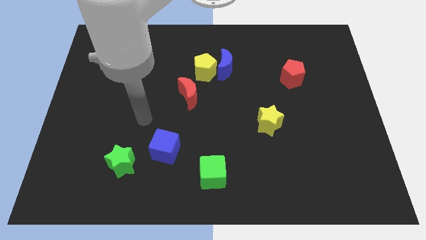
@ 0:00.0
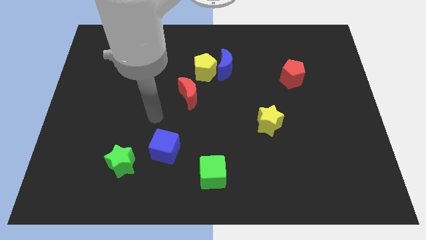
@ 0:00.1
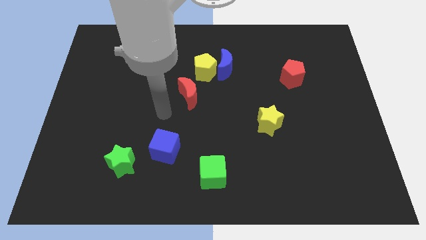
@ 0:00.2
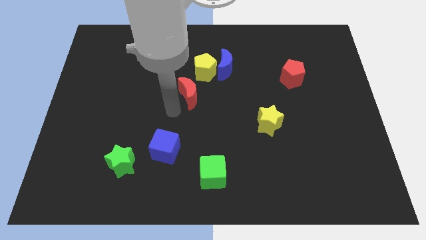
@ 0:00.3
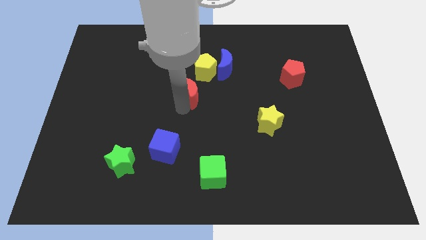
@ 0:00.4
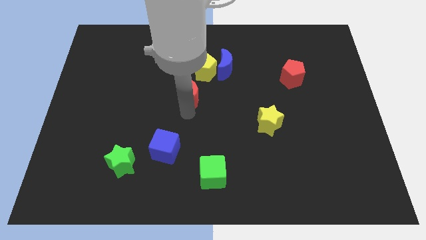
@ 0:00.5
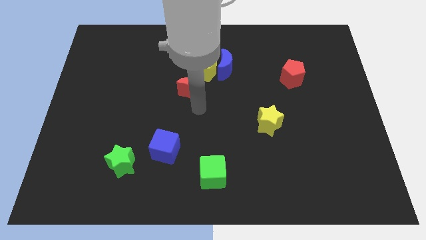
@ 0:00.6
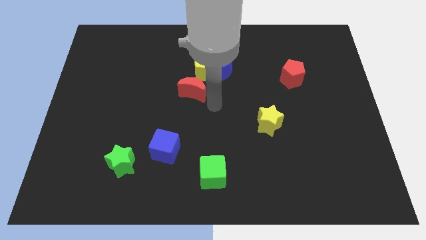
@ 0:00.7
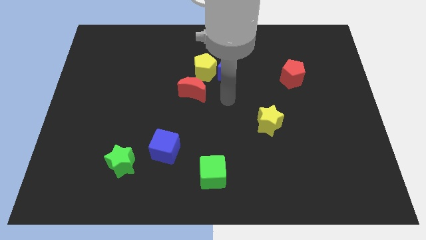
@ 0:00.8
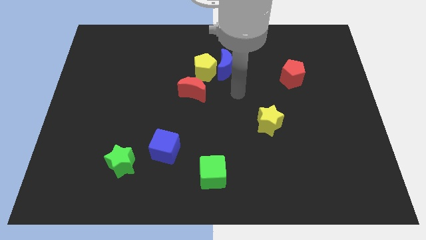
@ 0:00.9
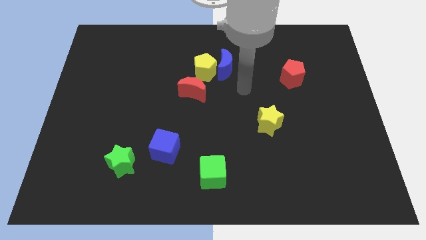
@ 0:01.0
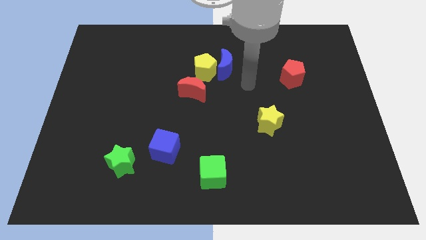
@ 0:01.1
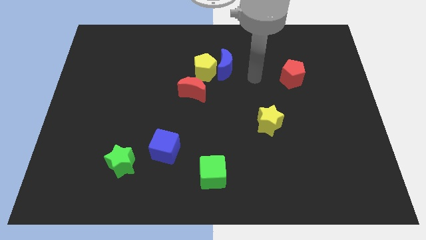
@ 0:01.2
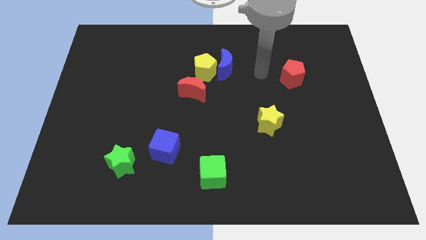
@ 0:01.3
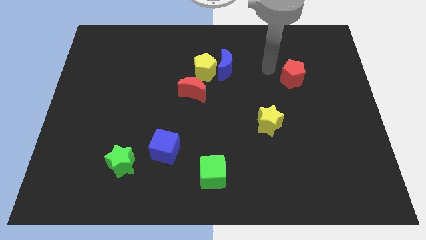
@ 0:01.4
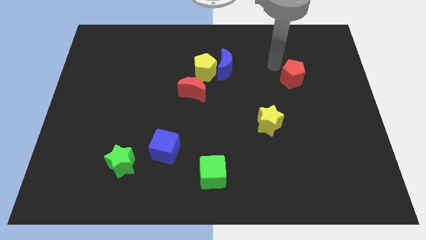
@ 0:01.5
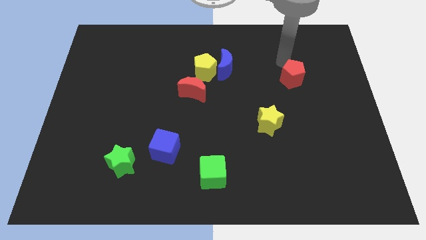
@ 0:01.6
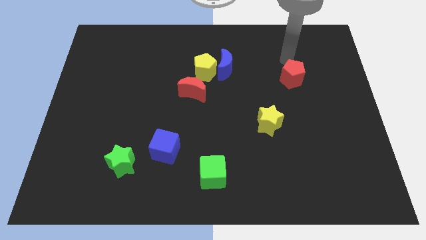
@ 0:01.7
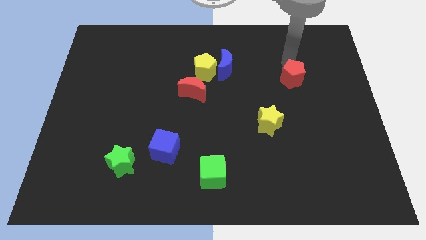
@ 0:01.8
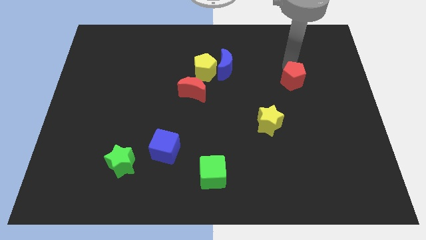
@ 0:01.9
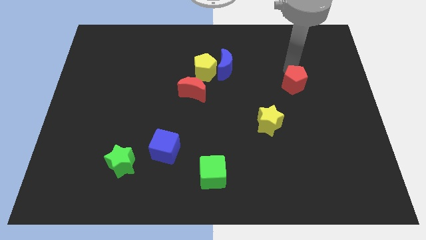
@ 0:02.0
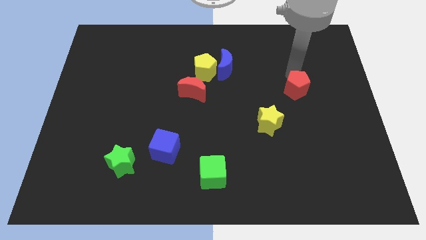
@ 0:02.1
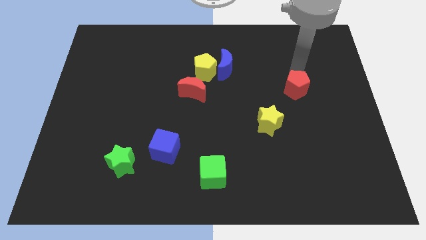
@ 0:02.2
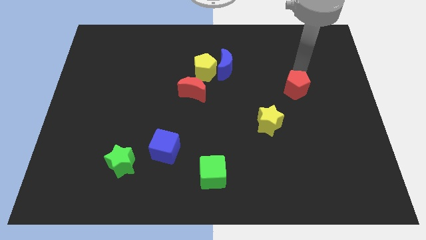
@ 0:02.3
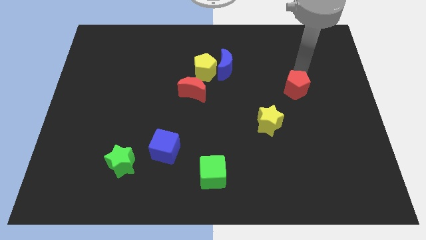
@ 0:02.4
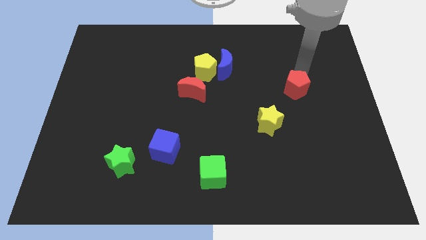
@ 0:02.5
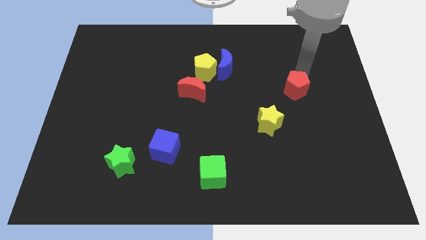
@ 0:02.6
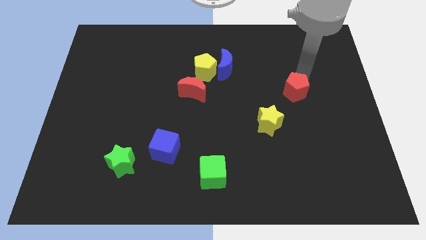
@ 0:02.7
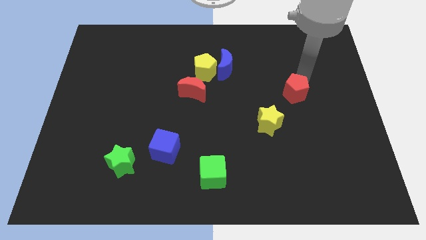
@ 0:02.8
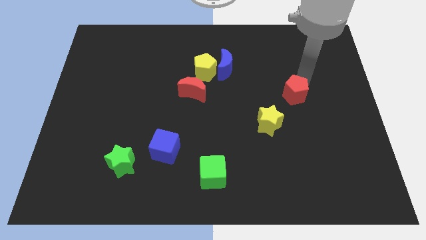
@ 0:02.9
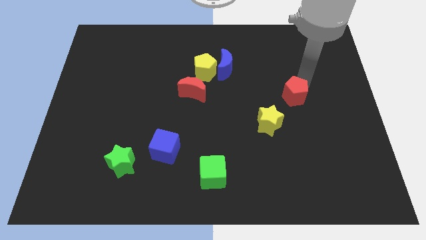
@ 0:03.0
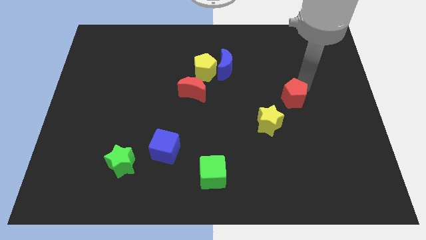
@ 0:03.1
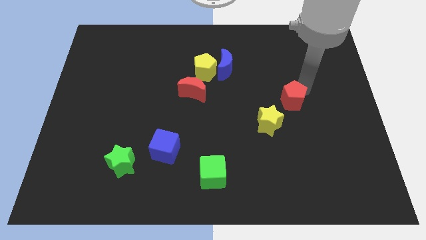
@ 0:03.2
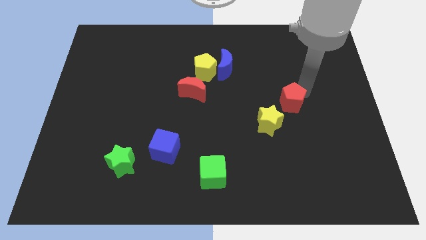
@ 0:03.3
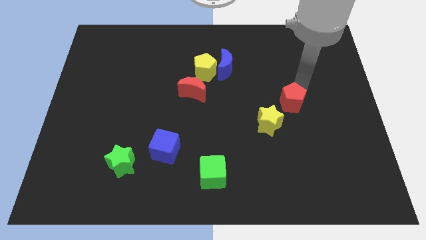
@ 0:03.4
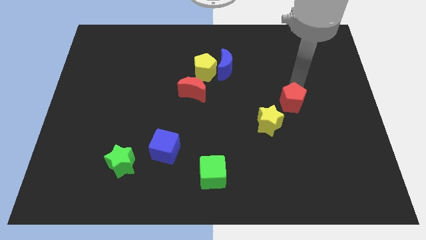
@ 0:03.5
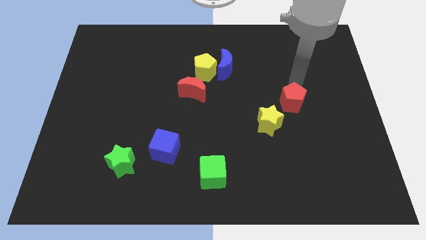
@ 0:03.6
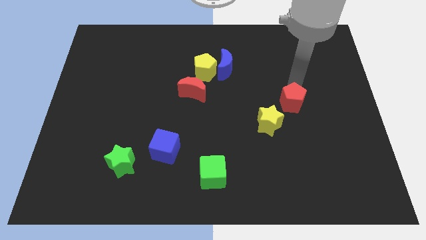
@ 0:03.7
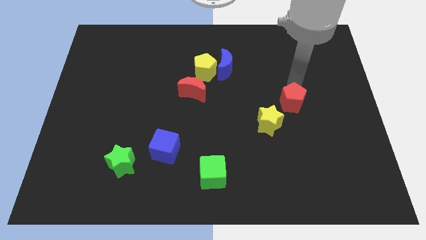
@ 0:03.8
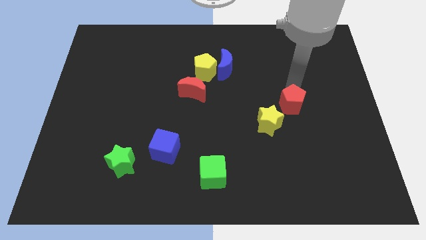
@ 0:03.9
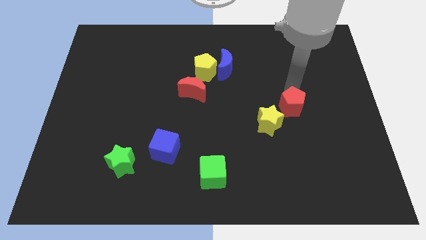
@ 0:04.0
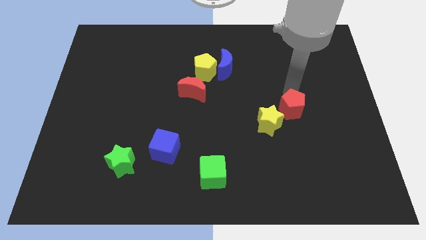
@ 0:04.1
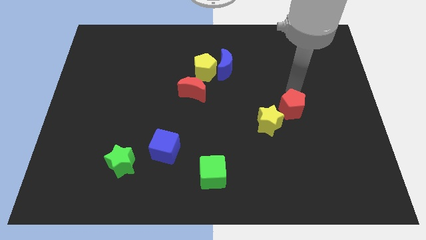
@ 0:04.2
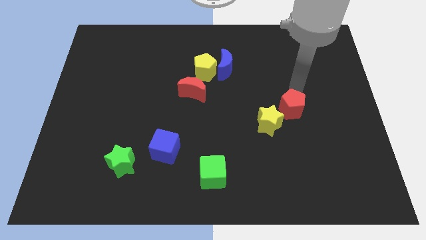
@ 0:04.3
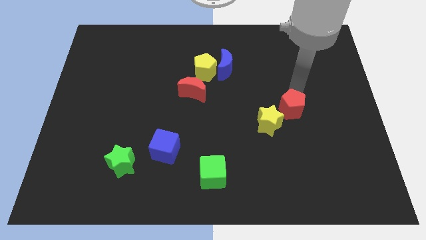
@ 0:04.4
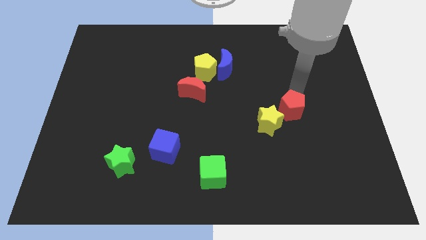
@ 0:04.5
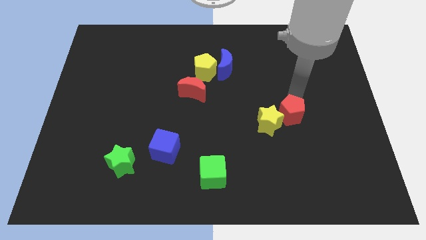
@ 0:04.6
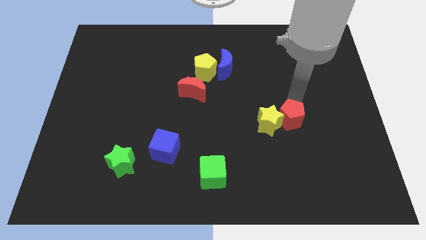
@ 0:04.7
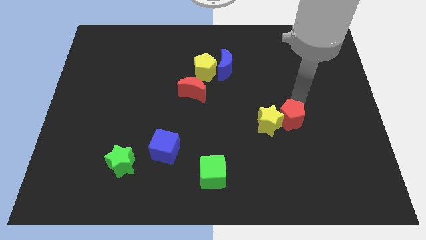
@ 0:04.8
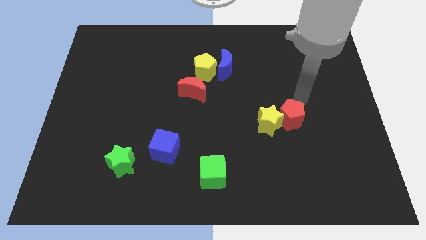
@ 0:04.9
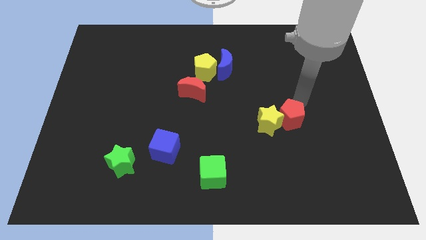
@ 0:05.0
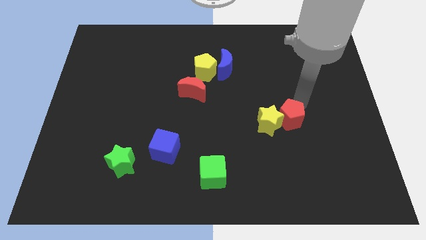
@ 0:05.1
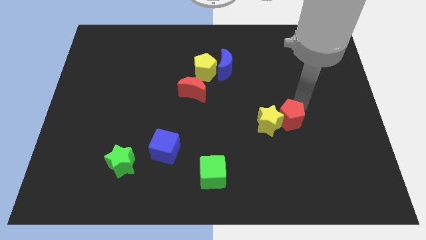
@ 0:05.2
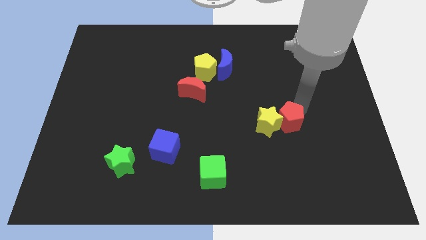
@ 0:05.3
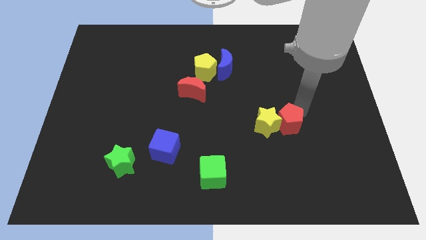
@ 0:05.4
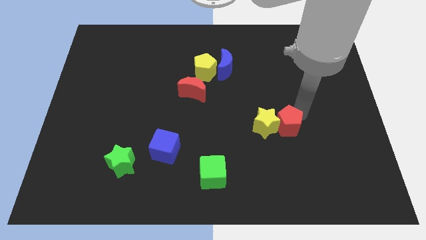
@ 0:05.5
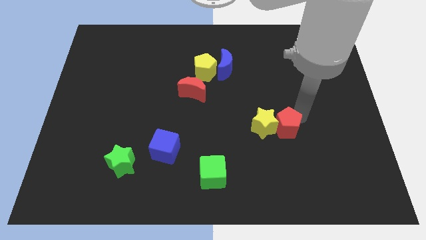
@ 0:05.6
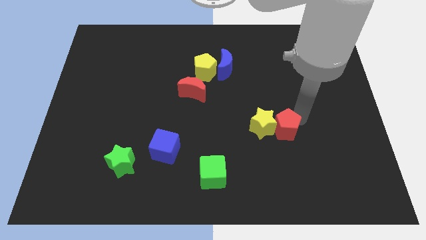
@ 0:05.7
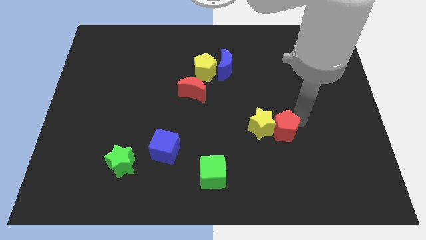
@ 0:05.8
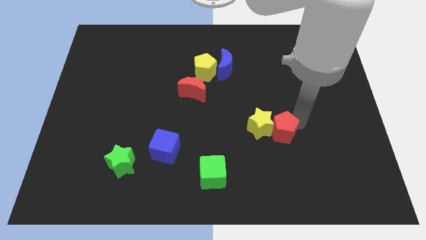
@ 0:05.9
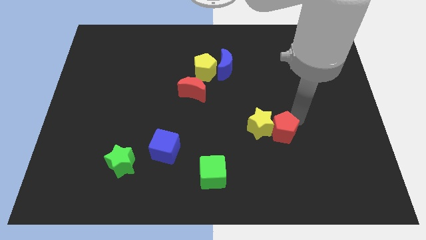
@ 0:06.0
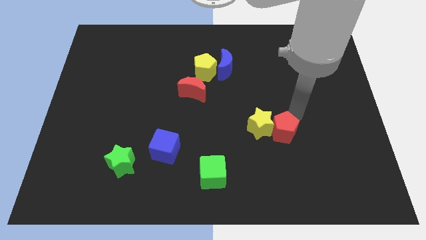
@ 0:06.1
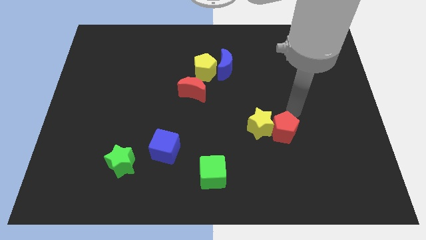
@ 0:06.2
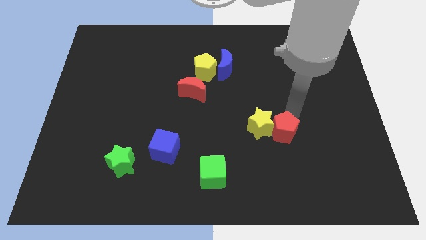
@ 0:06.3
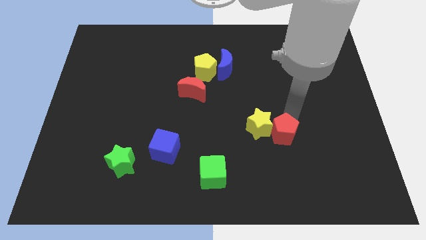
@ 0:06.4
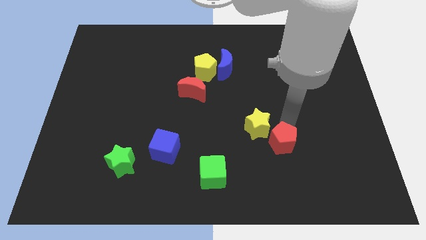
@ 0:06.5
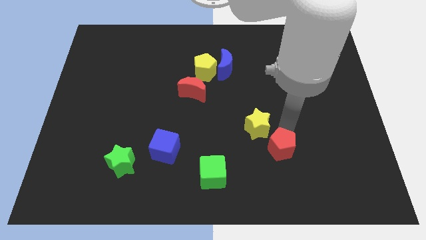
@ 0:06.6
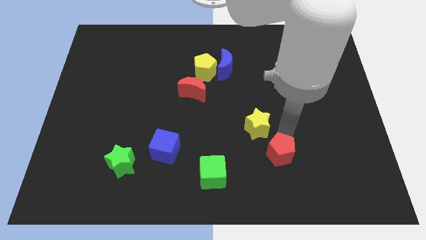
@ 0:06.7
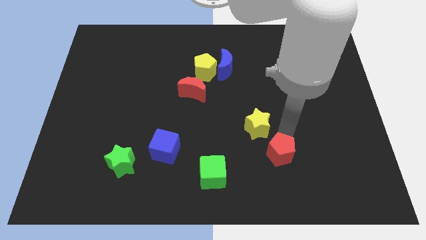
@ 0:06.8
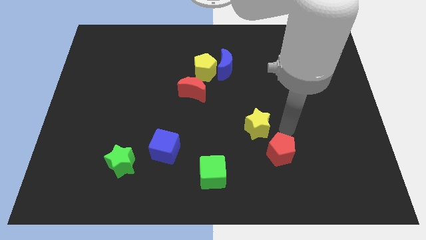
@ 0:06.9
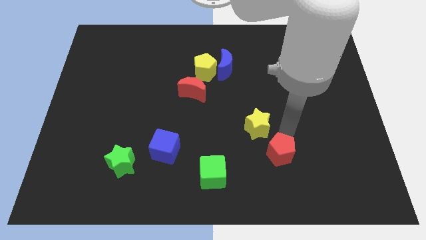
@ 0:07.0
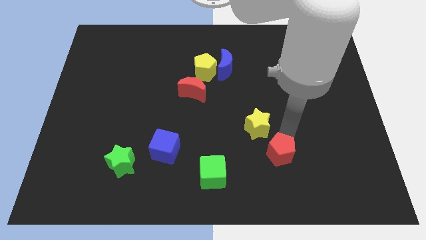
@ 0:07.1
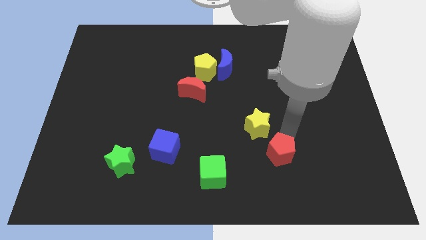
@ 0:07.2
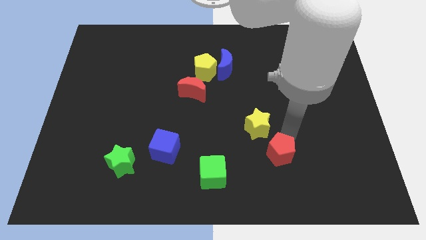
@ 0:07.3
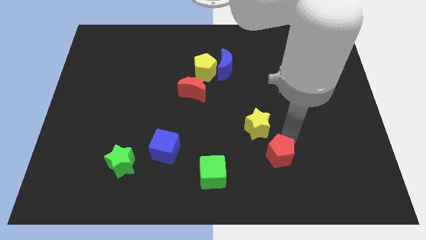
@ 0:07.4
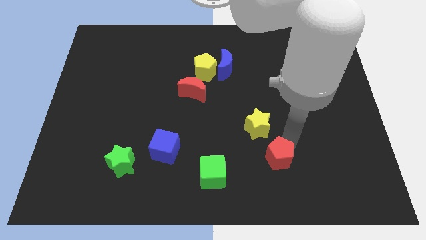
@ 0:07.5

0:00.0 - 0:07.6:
push the red pentagon to the right of the green cube
